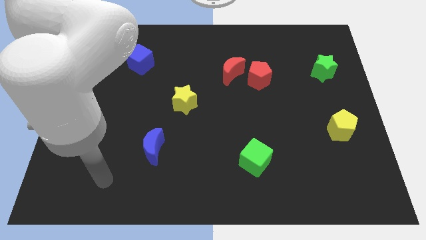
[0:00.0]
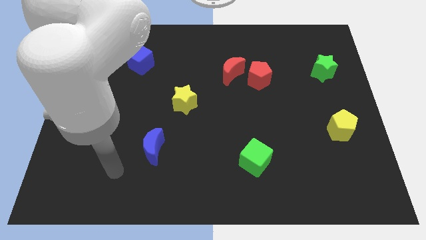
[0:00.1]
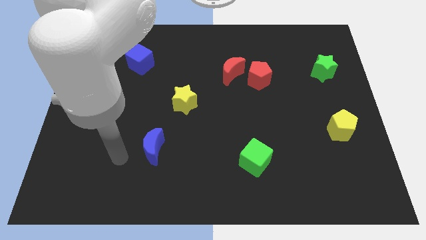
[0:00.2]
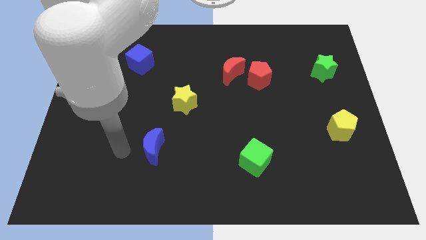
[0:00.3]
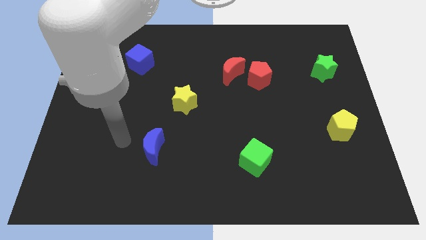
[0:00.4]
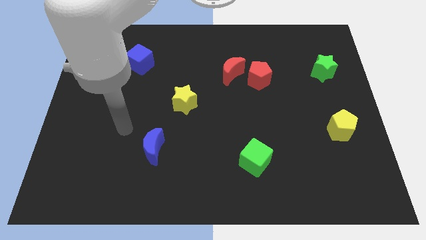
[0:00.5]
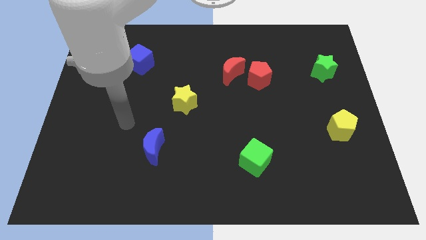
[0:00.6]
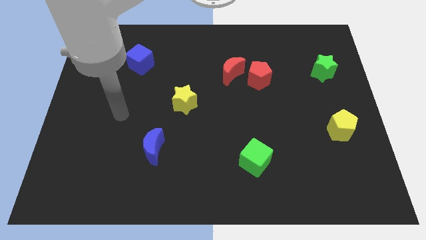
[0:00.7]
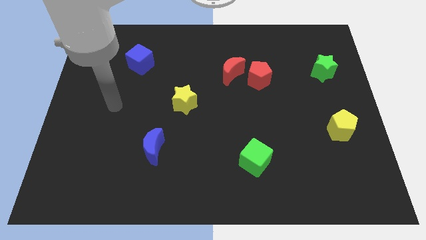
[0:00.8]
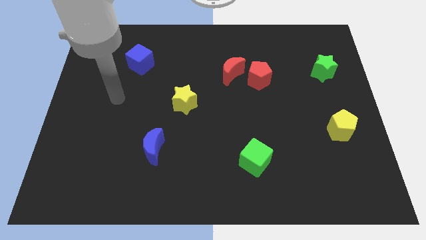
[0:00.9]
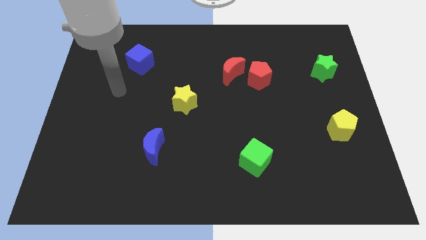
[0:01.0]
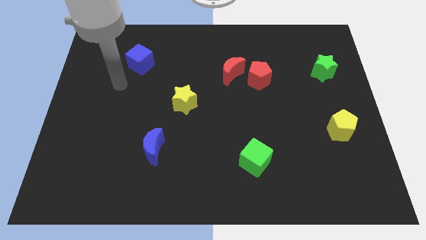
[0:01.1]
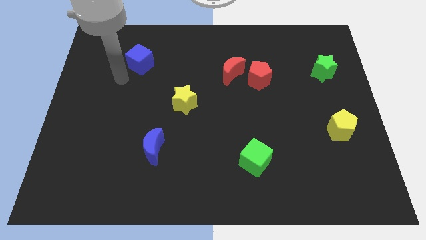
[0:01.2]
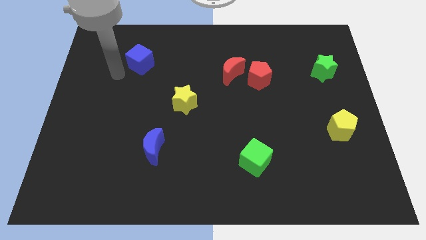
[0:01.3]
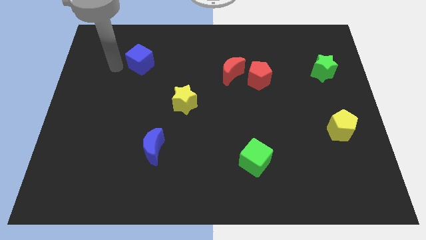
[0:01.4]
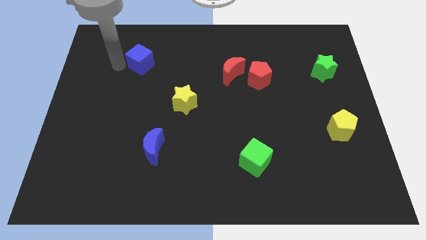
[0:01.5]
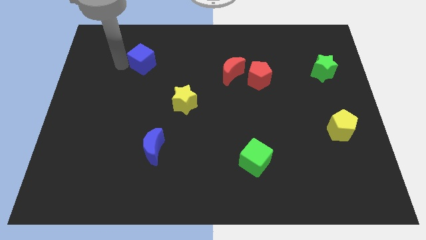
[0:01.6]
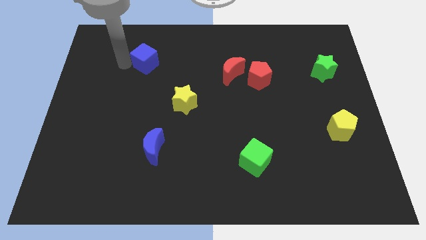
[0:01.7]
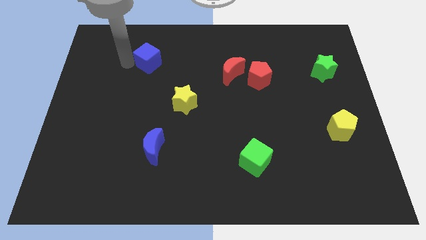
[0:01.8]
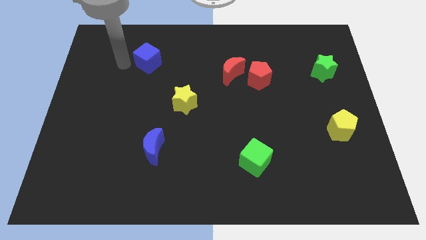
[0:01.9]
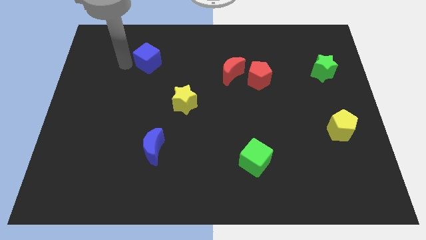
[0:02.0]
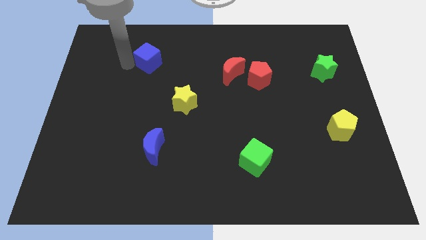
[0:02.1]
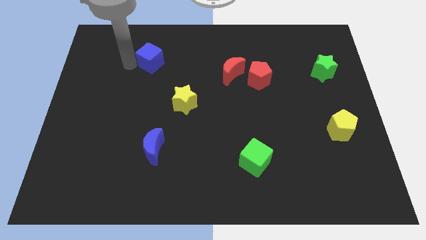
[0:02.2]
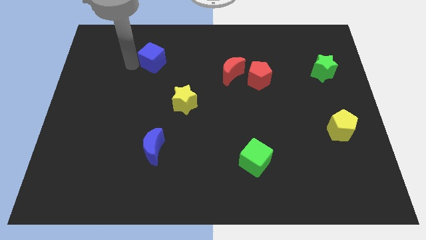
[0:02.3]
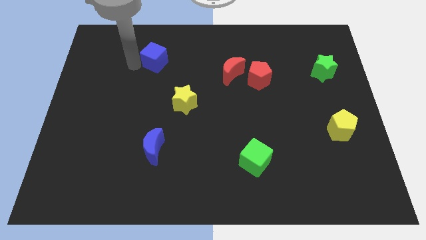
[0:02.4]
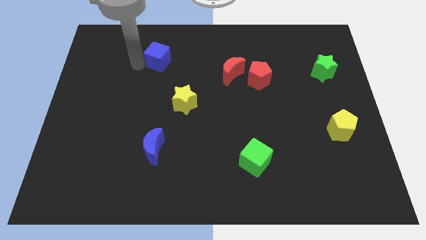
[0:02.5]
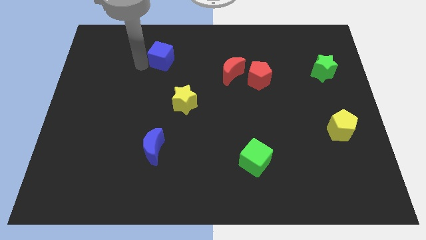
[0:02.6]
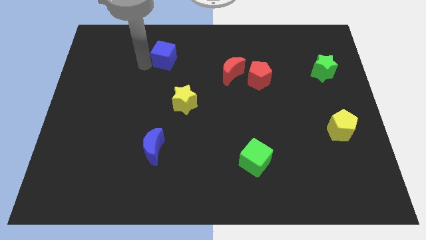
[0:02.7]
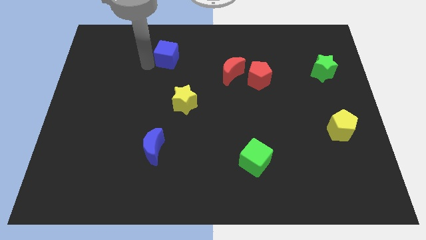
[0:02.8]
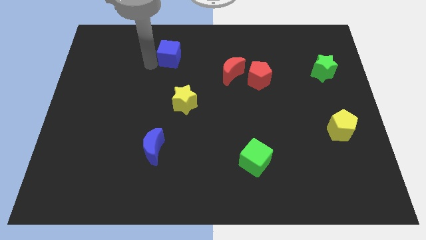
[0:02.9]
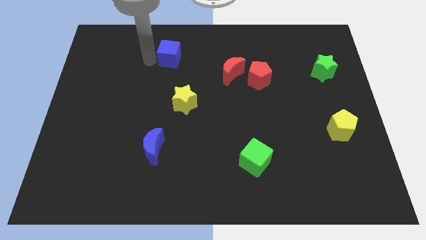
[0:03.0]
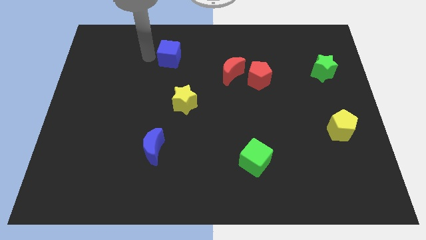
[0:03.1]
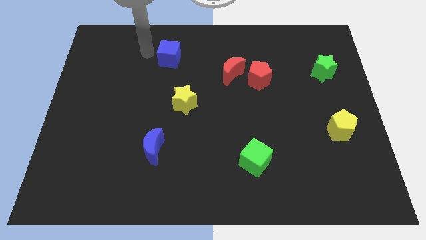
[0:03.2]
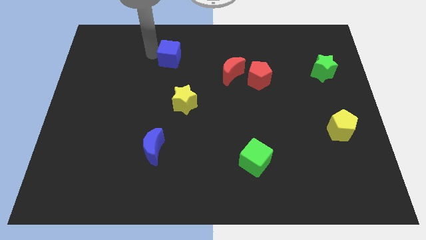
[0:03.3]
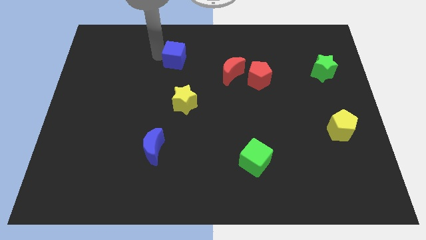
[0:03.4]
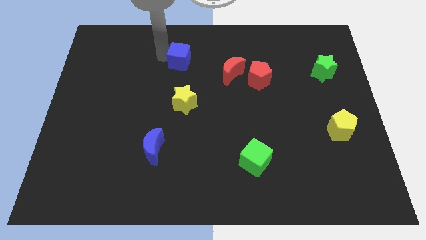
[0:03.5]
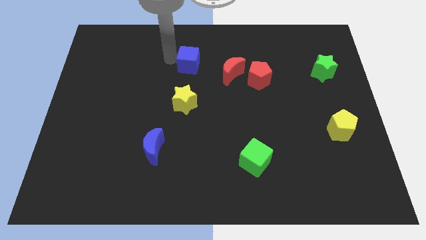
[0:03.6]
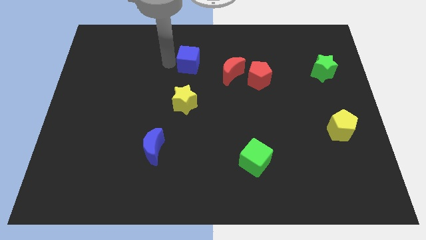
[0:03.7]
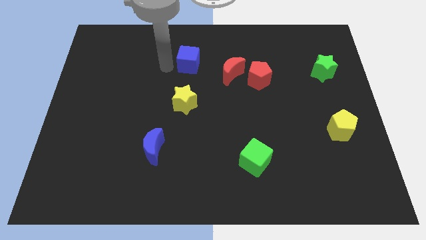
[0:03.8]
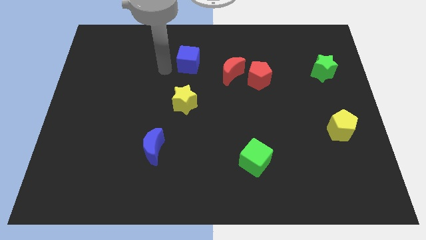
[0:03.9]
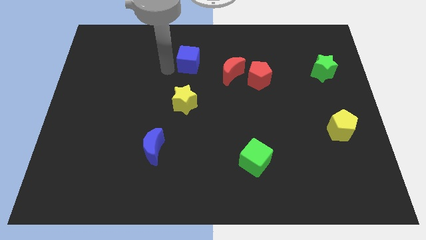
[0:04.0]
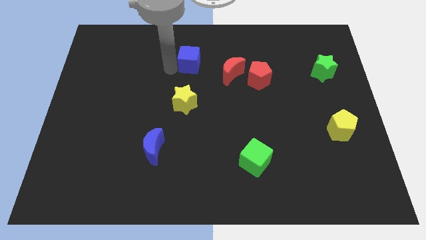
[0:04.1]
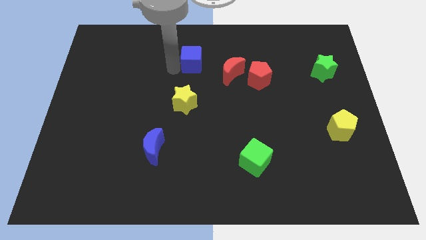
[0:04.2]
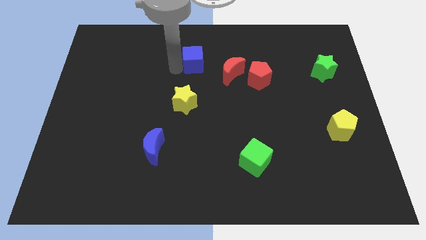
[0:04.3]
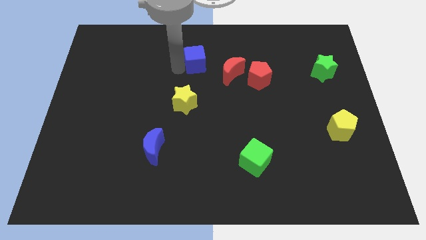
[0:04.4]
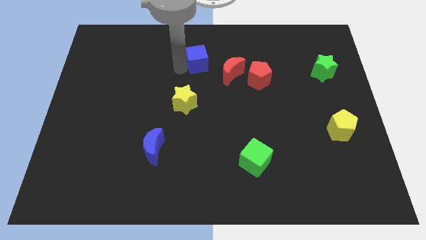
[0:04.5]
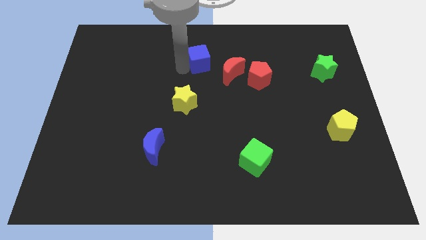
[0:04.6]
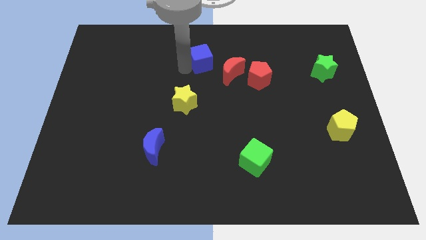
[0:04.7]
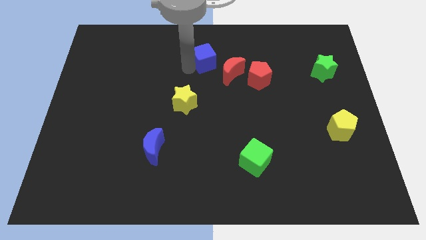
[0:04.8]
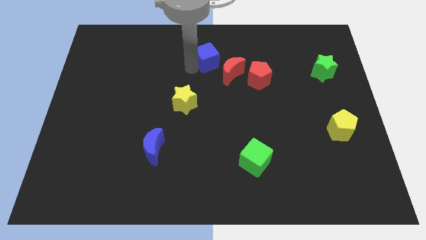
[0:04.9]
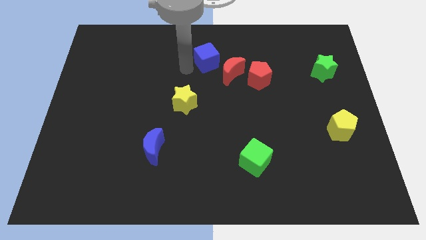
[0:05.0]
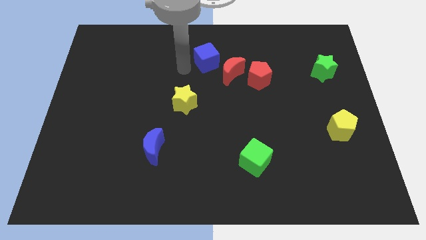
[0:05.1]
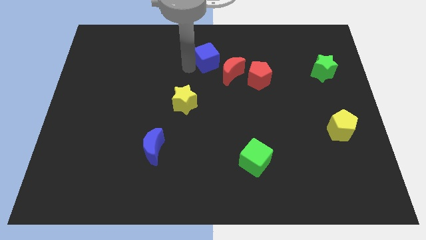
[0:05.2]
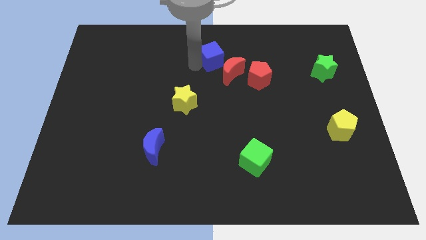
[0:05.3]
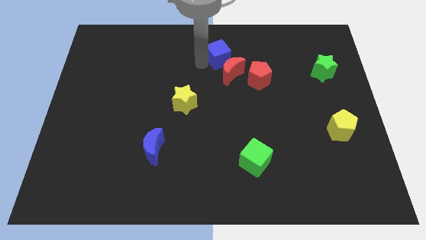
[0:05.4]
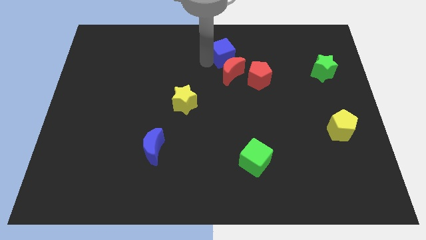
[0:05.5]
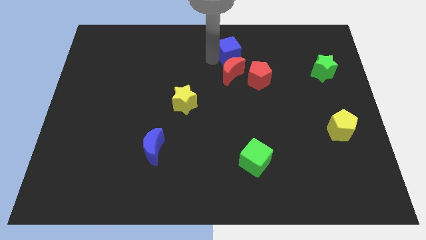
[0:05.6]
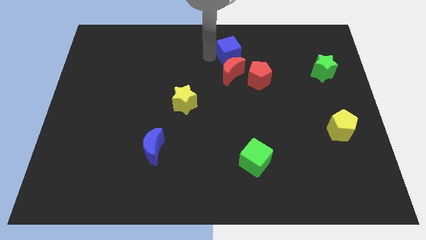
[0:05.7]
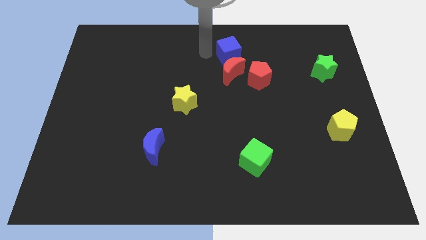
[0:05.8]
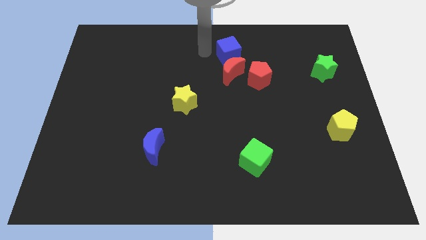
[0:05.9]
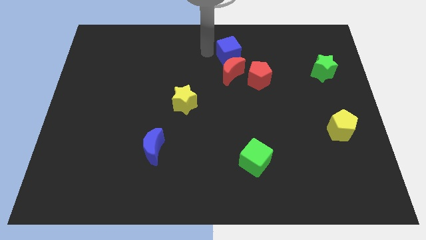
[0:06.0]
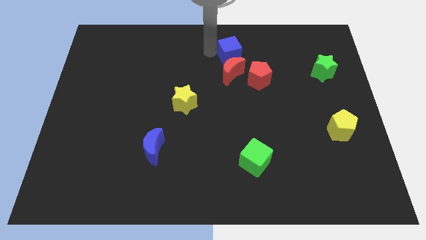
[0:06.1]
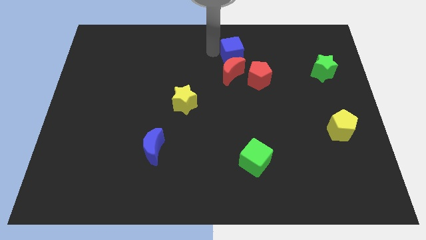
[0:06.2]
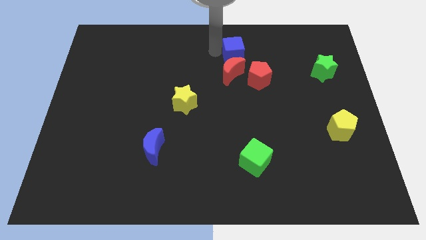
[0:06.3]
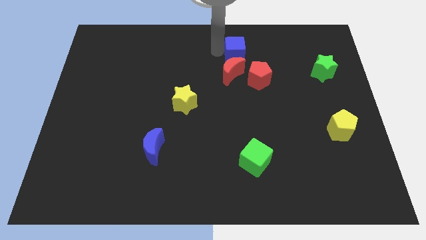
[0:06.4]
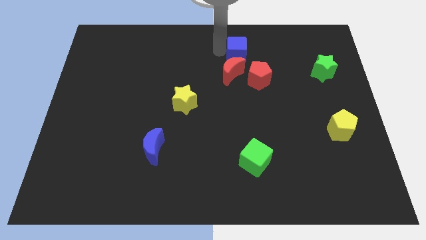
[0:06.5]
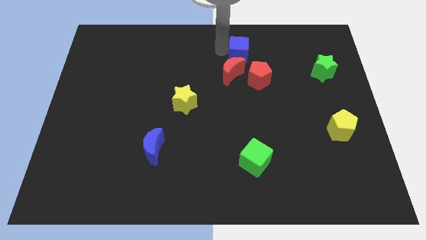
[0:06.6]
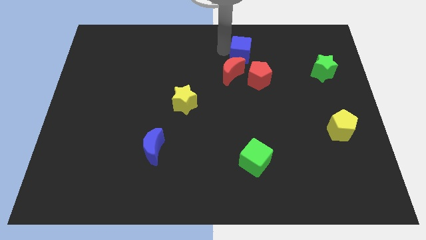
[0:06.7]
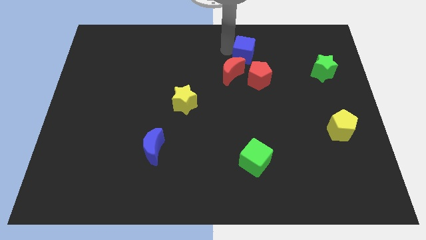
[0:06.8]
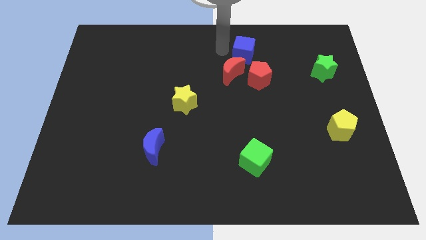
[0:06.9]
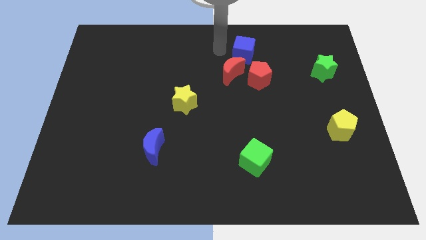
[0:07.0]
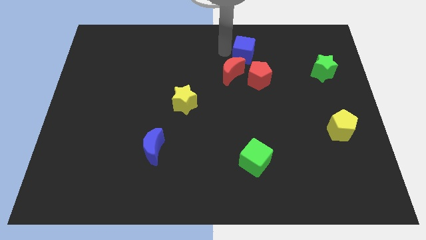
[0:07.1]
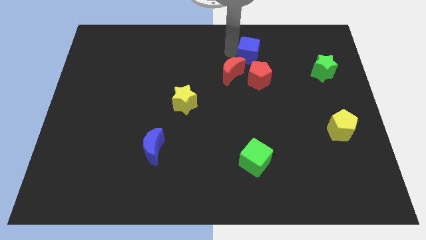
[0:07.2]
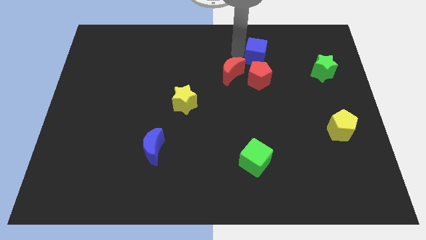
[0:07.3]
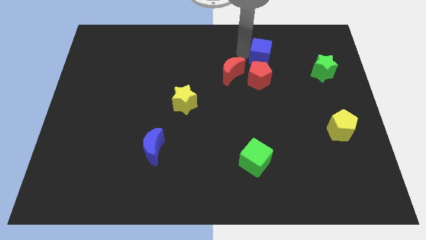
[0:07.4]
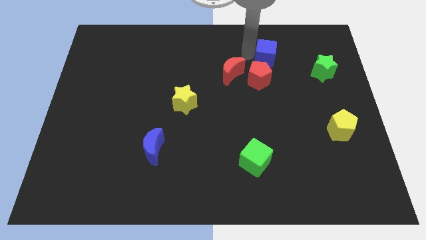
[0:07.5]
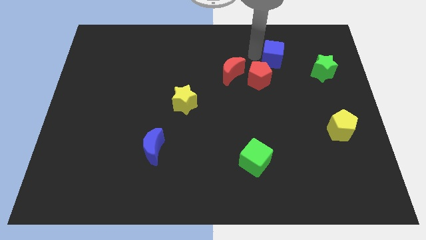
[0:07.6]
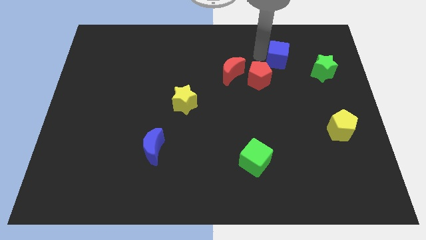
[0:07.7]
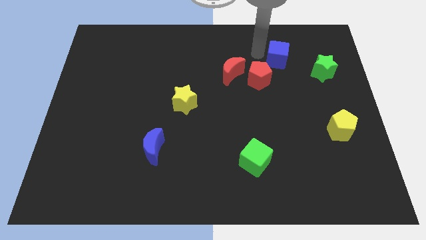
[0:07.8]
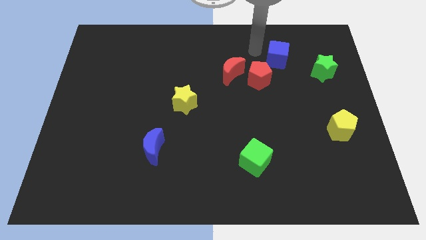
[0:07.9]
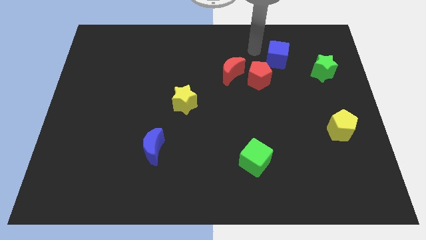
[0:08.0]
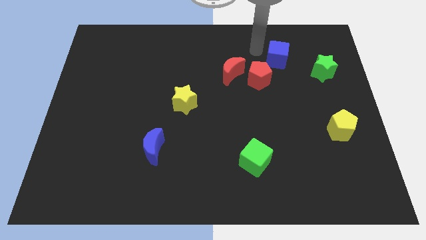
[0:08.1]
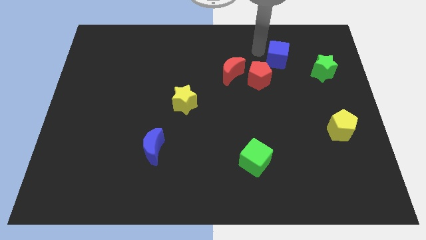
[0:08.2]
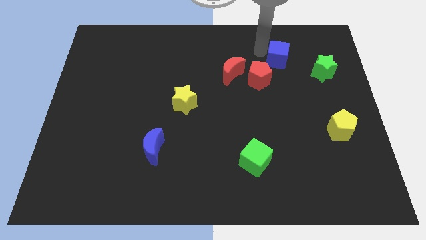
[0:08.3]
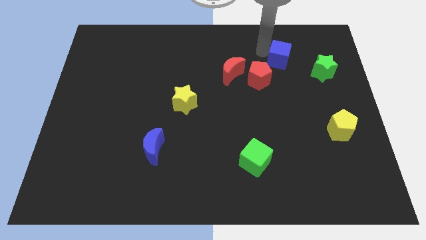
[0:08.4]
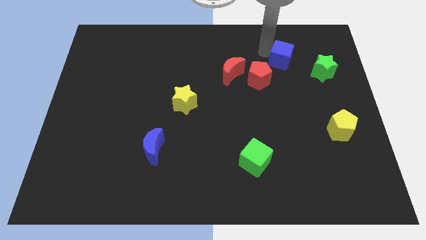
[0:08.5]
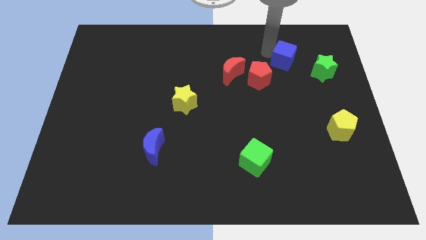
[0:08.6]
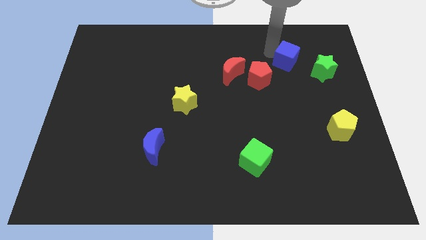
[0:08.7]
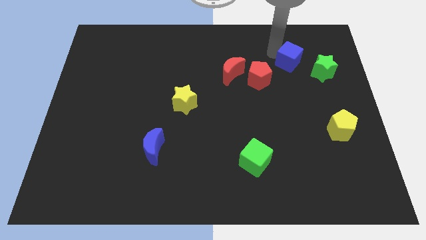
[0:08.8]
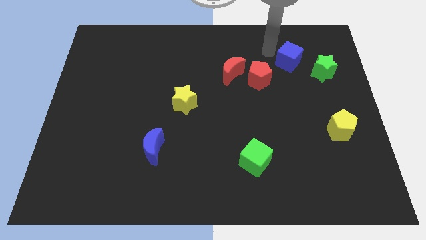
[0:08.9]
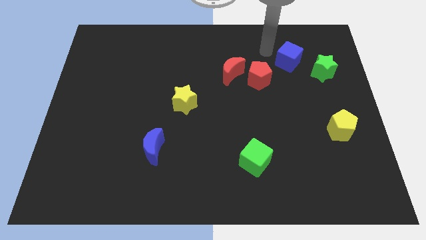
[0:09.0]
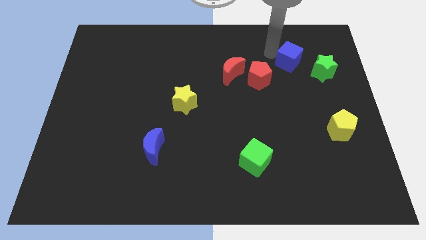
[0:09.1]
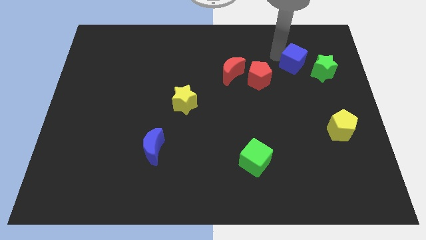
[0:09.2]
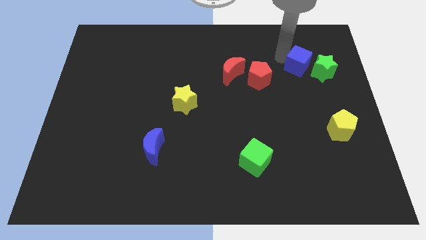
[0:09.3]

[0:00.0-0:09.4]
put the blue cube next to the green star
